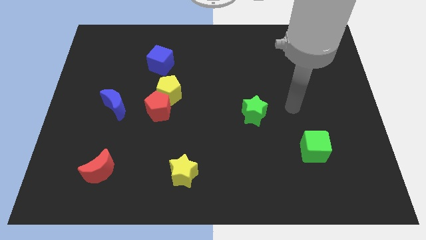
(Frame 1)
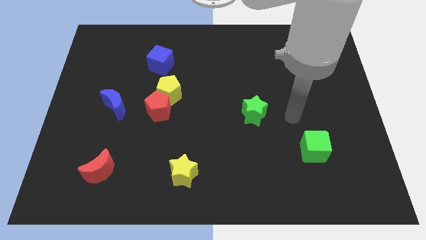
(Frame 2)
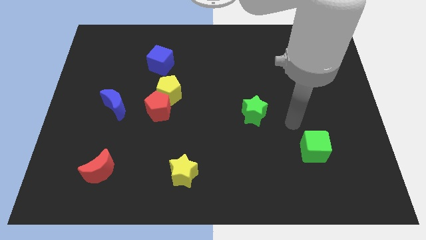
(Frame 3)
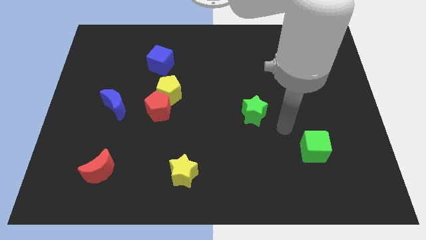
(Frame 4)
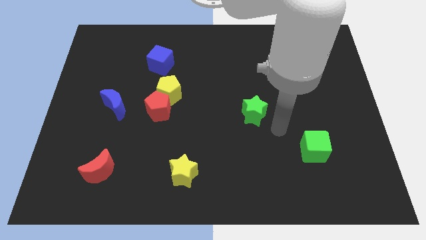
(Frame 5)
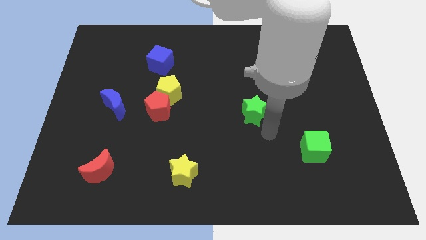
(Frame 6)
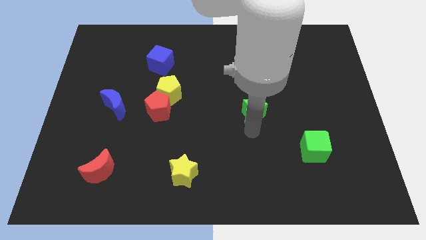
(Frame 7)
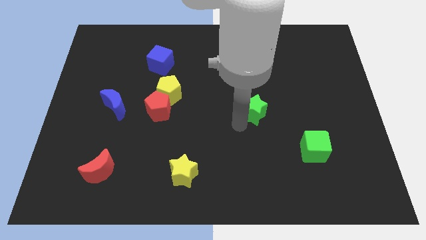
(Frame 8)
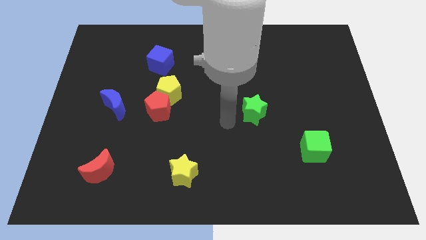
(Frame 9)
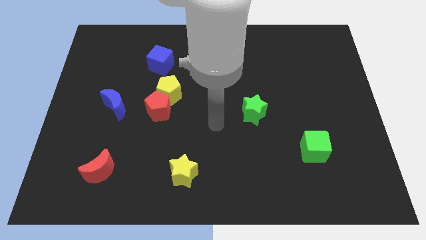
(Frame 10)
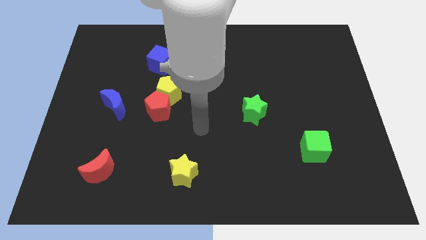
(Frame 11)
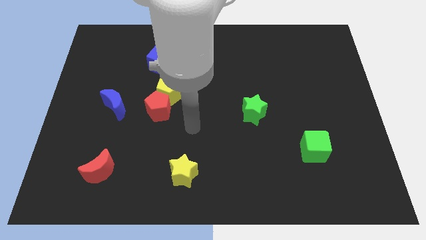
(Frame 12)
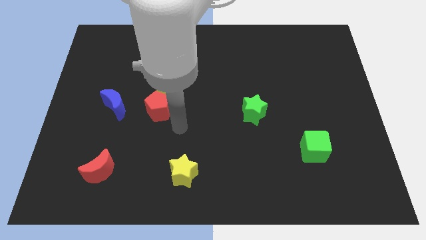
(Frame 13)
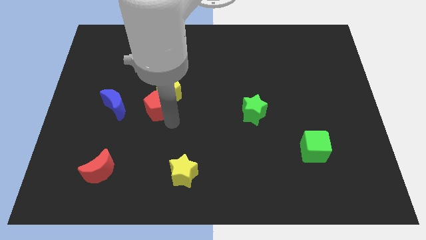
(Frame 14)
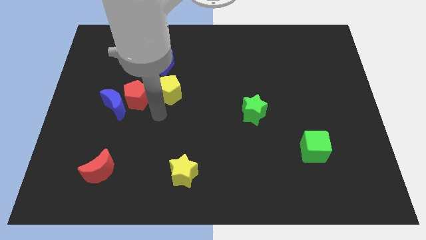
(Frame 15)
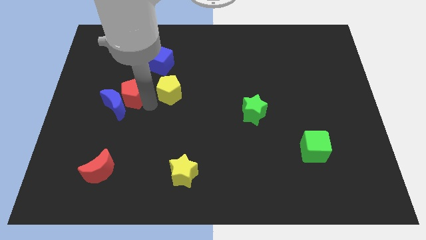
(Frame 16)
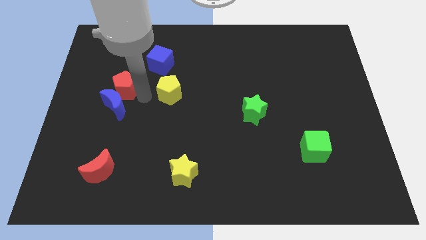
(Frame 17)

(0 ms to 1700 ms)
separate the yellow pentagon from the red pentagon

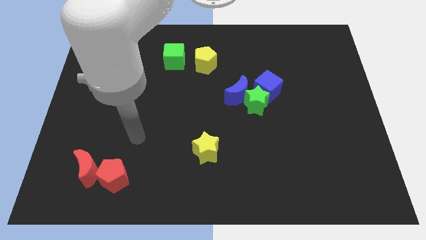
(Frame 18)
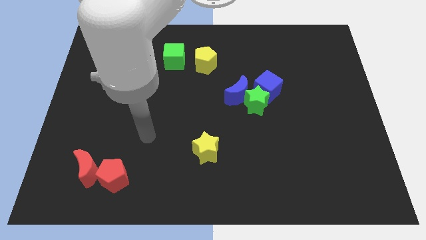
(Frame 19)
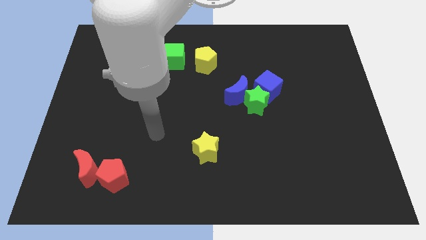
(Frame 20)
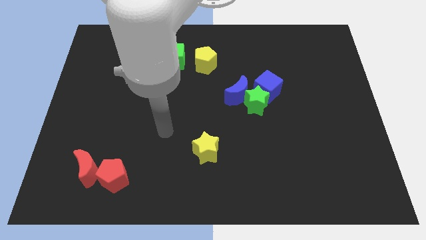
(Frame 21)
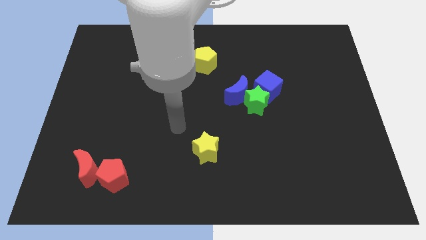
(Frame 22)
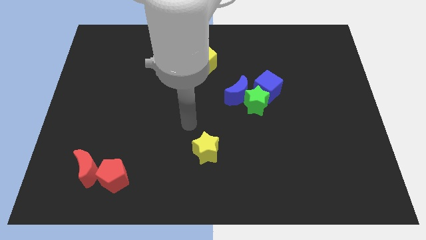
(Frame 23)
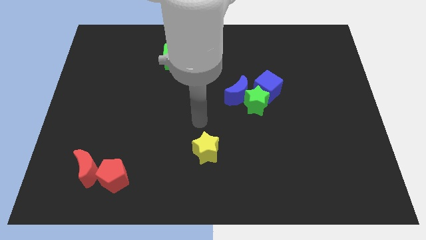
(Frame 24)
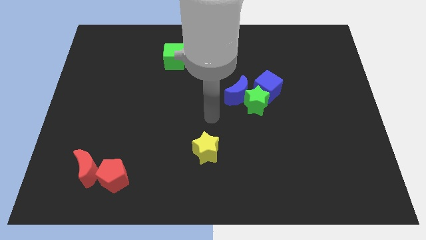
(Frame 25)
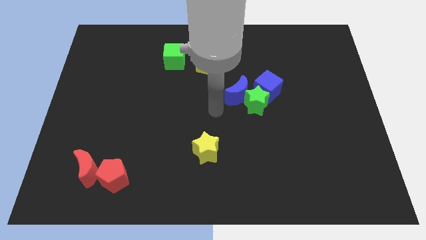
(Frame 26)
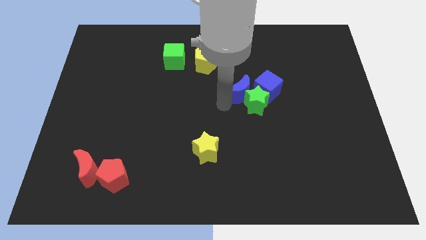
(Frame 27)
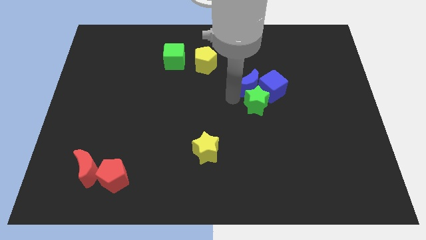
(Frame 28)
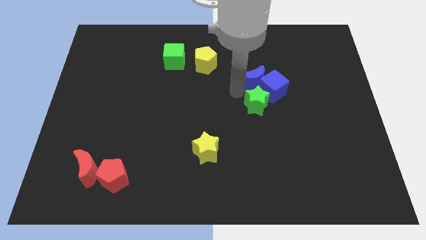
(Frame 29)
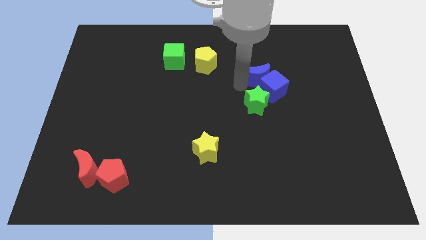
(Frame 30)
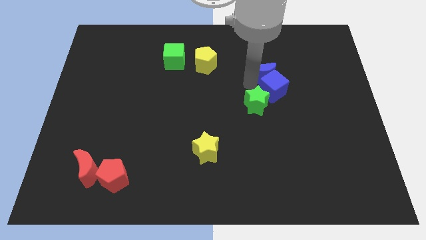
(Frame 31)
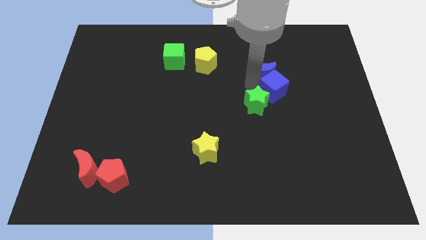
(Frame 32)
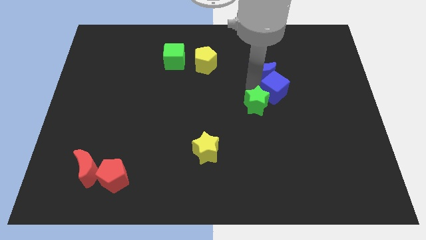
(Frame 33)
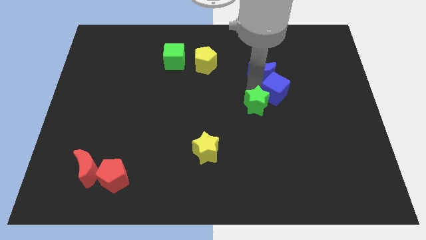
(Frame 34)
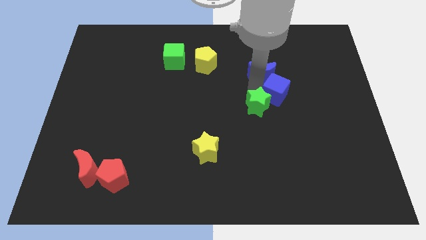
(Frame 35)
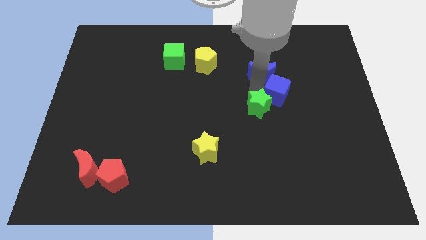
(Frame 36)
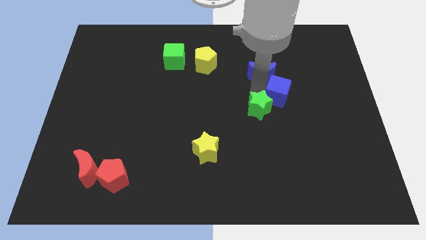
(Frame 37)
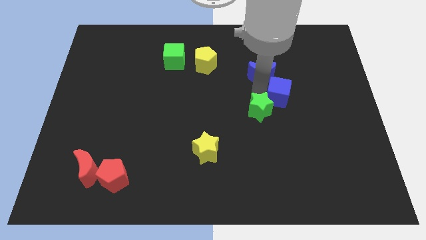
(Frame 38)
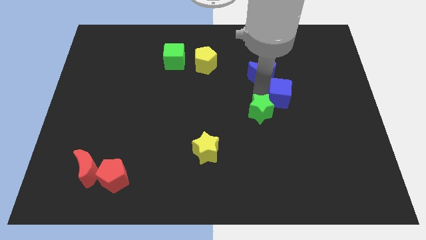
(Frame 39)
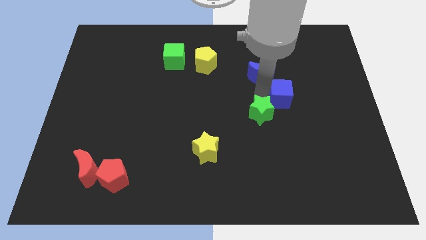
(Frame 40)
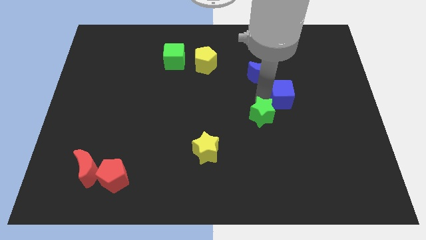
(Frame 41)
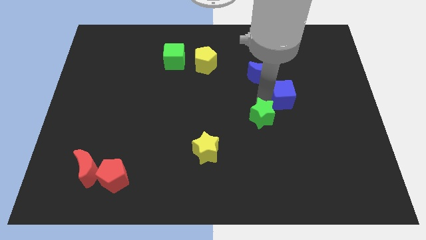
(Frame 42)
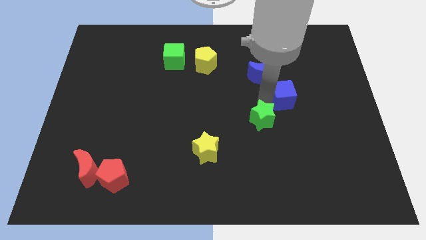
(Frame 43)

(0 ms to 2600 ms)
move the green star away from the blue moon and blue cube

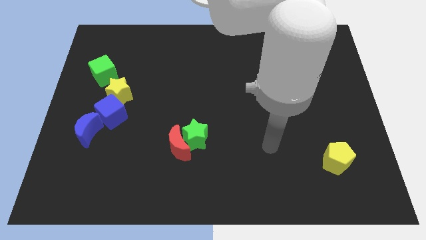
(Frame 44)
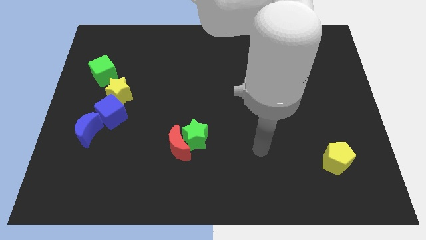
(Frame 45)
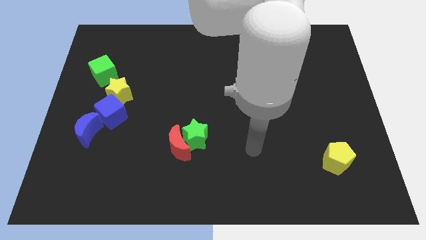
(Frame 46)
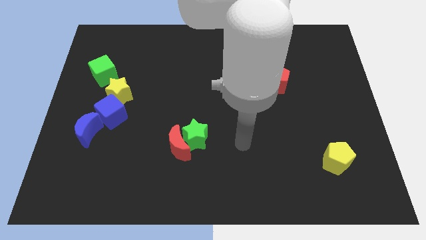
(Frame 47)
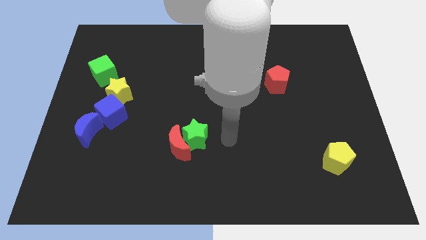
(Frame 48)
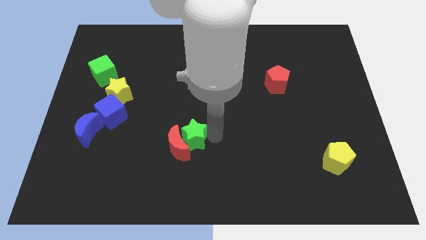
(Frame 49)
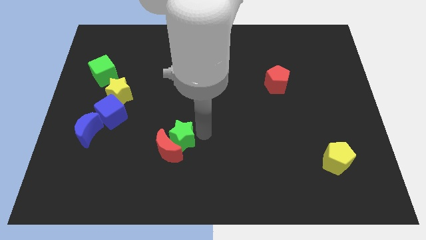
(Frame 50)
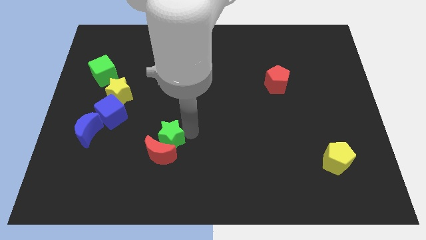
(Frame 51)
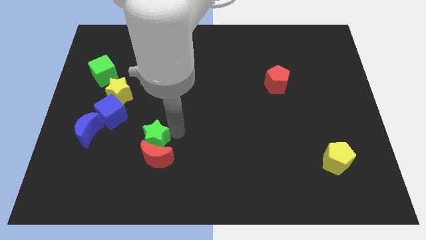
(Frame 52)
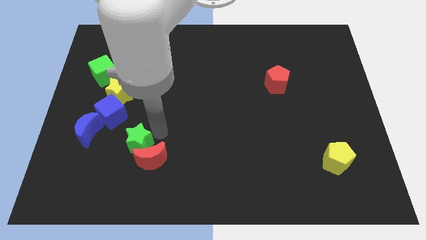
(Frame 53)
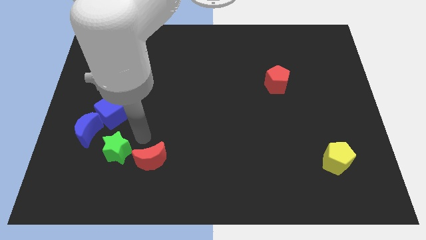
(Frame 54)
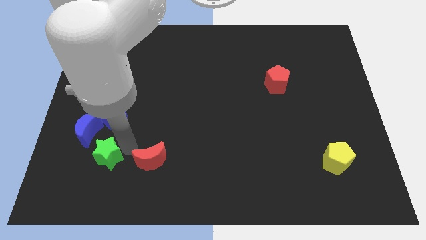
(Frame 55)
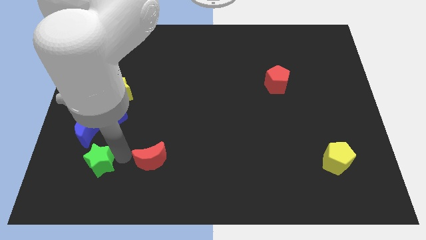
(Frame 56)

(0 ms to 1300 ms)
pull the red moon apart from the green star

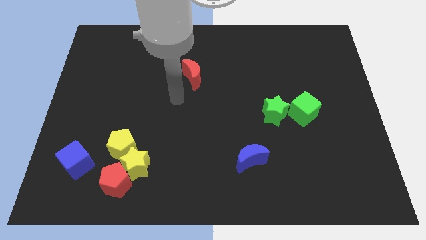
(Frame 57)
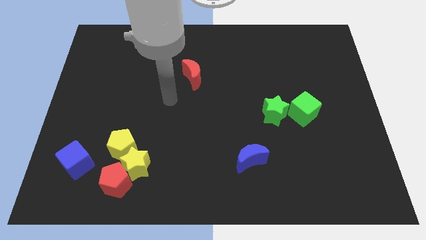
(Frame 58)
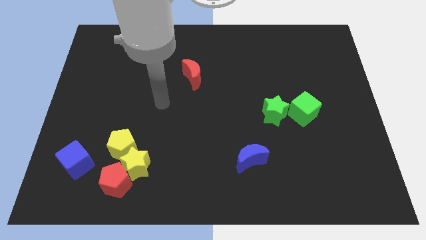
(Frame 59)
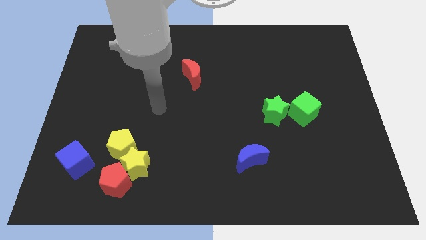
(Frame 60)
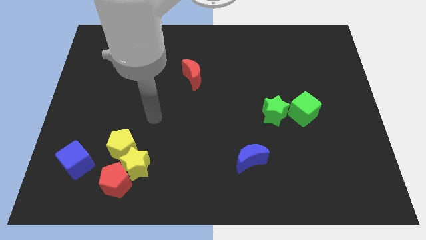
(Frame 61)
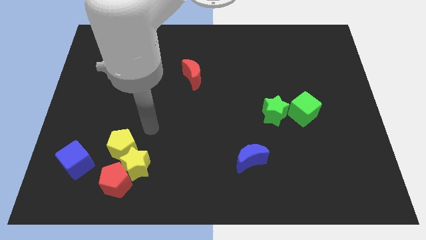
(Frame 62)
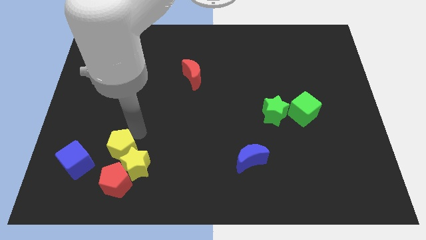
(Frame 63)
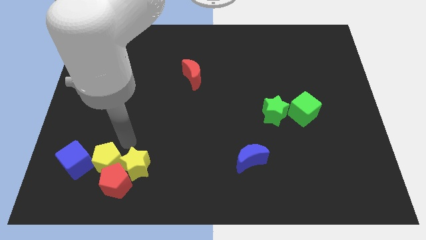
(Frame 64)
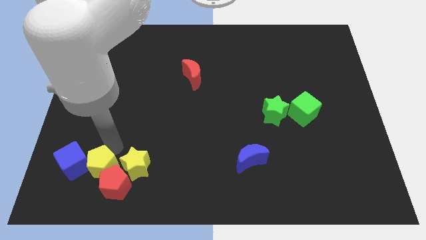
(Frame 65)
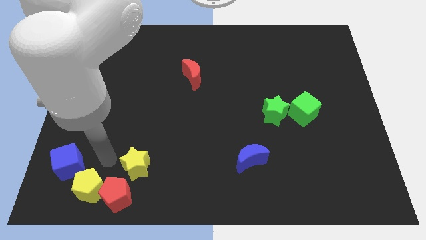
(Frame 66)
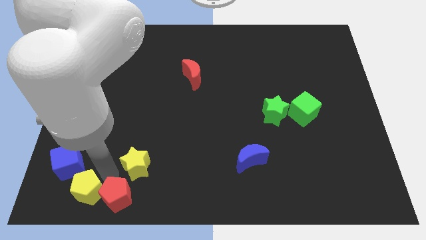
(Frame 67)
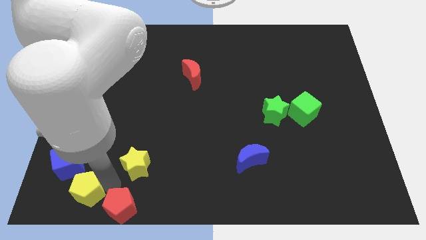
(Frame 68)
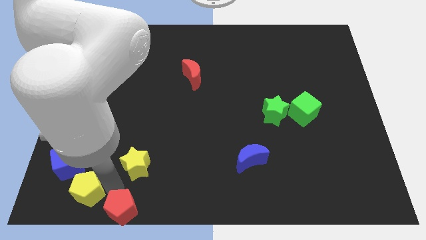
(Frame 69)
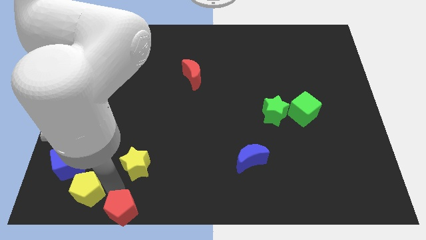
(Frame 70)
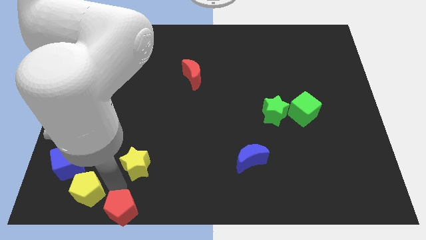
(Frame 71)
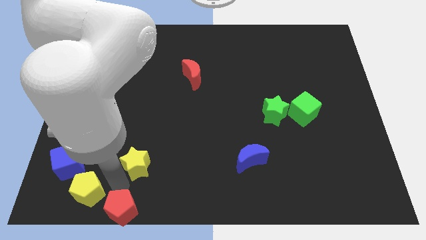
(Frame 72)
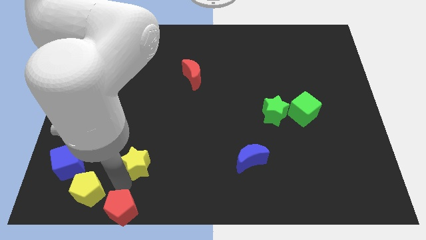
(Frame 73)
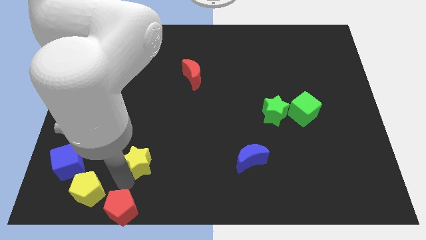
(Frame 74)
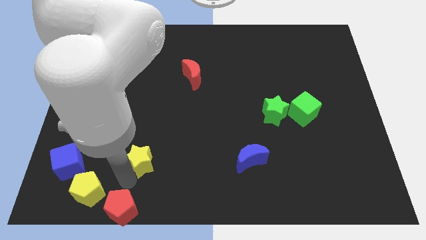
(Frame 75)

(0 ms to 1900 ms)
separate the yellow star from the red pentagon and yellow pentagon

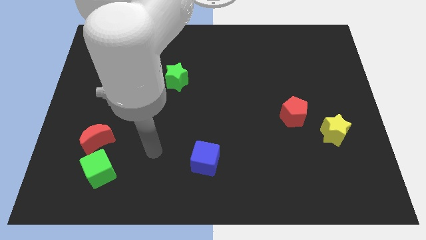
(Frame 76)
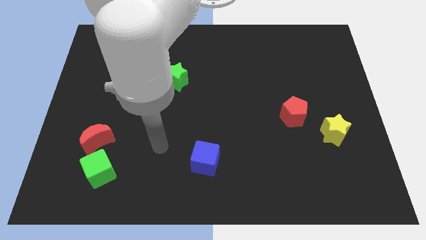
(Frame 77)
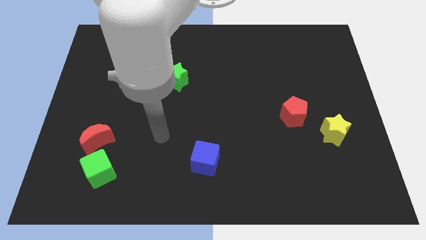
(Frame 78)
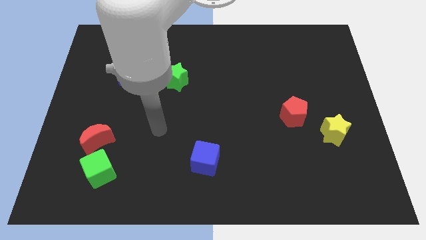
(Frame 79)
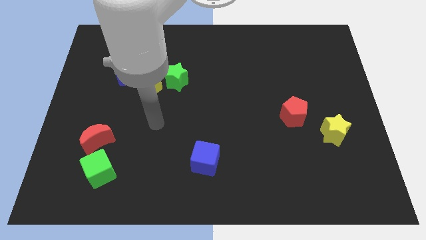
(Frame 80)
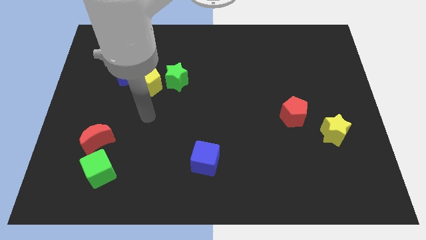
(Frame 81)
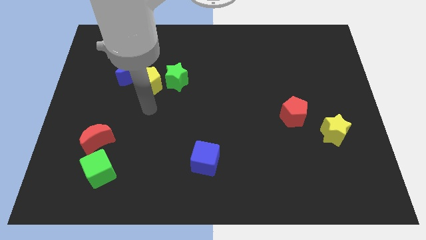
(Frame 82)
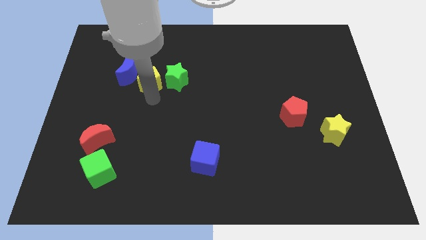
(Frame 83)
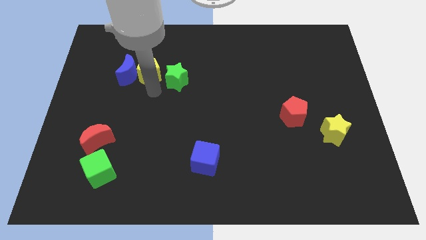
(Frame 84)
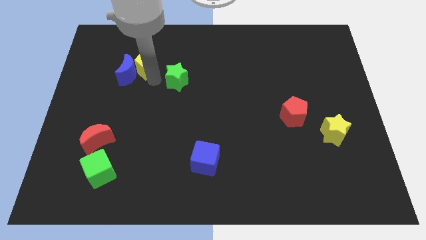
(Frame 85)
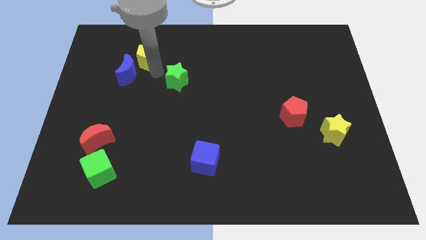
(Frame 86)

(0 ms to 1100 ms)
separate the green star from the yellow pentagon

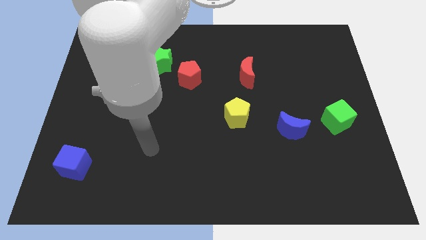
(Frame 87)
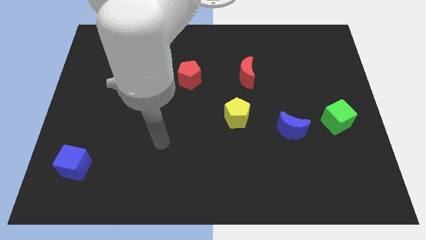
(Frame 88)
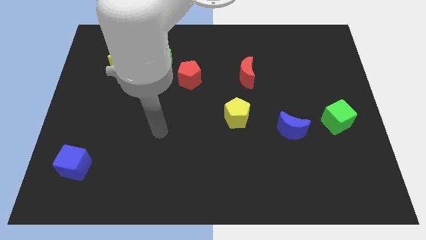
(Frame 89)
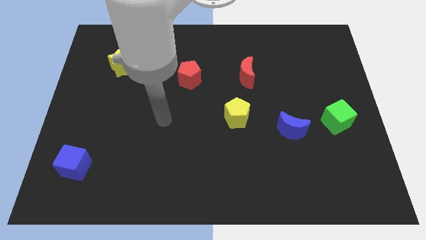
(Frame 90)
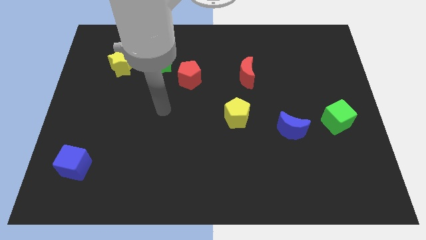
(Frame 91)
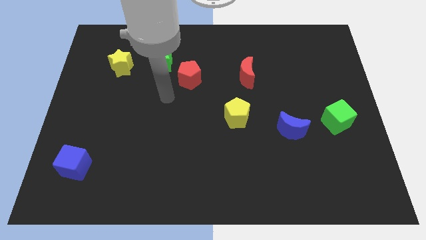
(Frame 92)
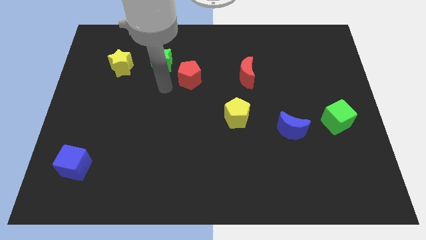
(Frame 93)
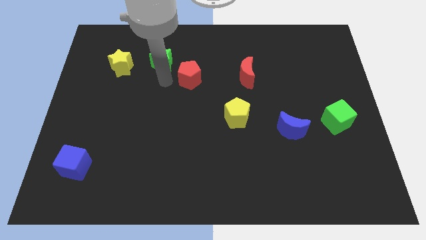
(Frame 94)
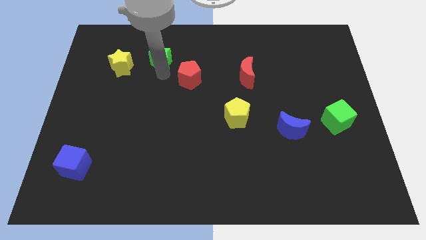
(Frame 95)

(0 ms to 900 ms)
move the red pentagon away from the green star
